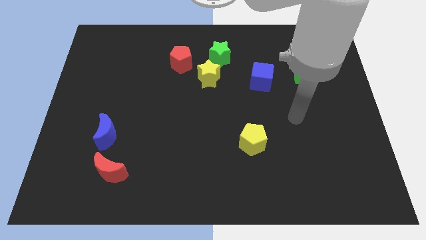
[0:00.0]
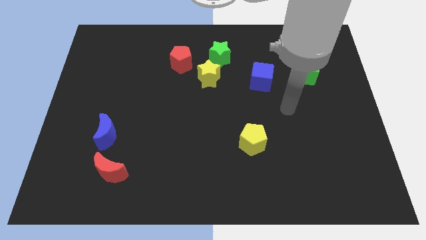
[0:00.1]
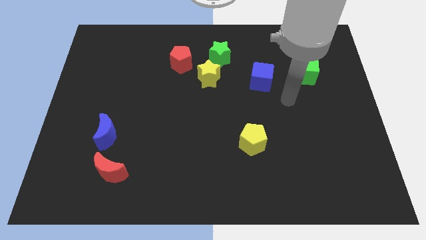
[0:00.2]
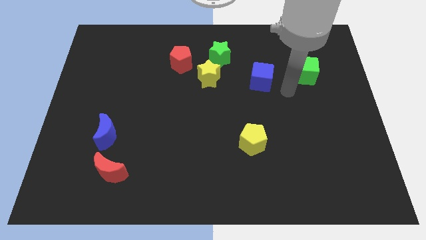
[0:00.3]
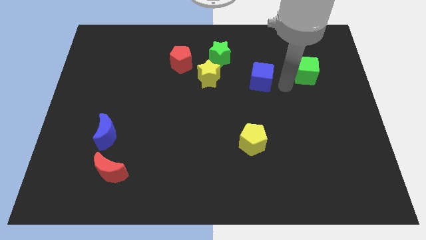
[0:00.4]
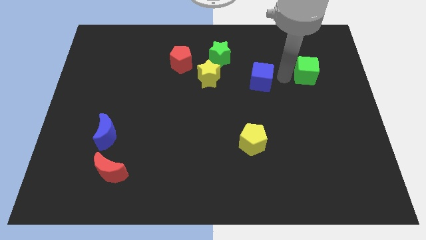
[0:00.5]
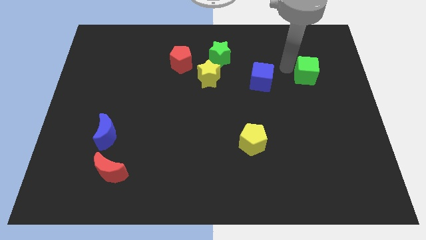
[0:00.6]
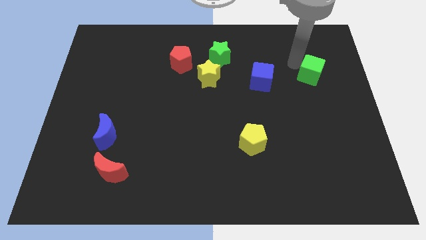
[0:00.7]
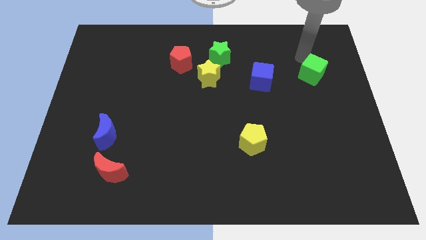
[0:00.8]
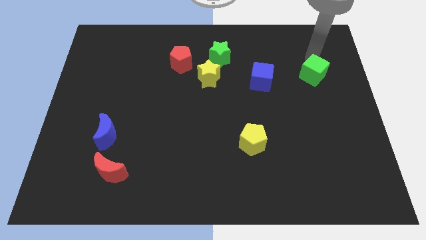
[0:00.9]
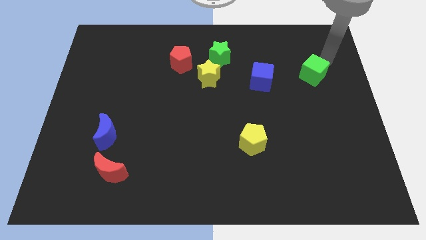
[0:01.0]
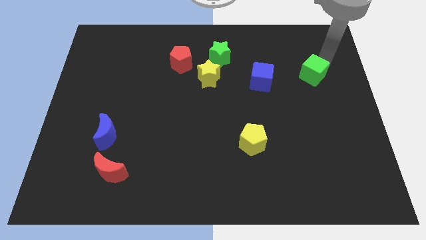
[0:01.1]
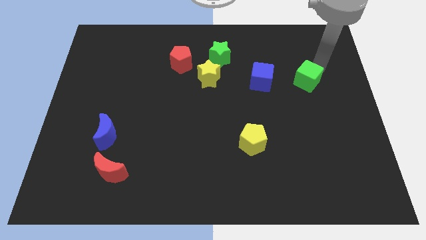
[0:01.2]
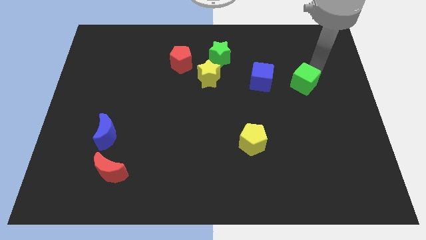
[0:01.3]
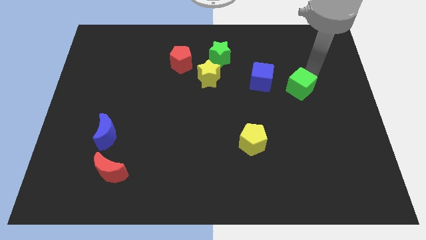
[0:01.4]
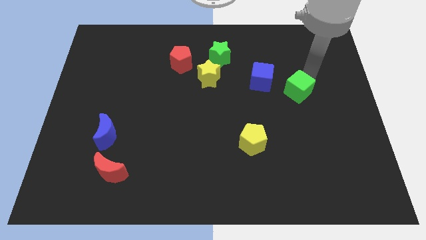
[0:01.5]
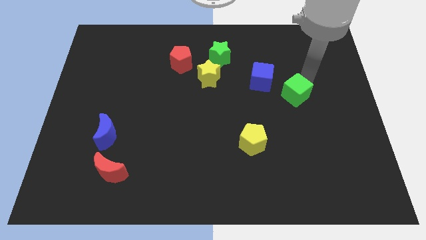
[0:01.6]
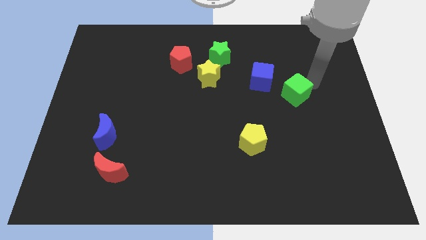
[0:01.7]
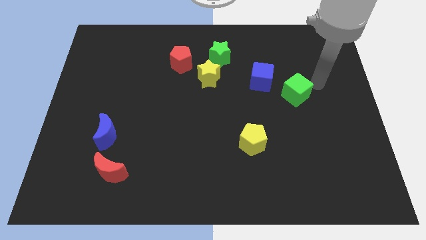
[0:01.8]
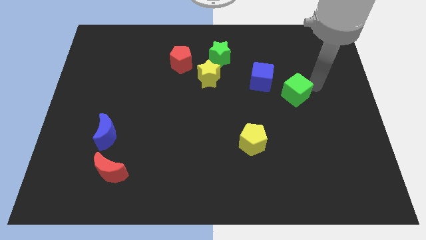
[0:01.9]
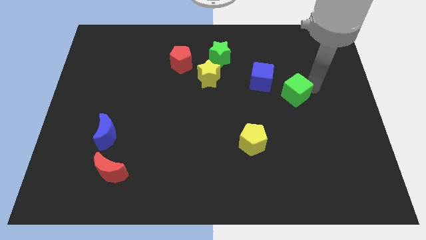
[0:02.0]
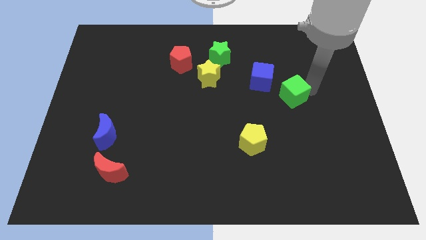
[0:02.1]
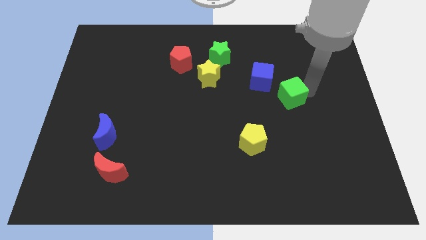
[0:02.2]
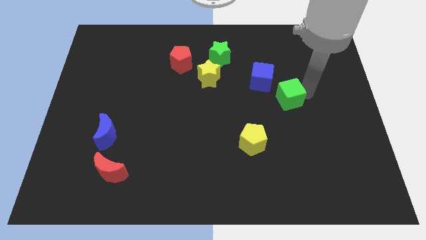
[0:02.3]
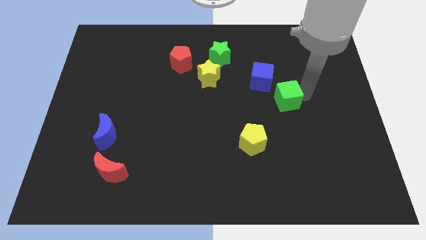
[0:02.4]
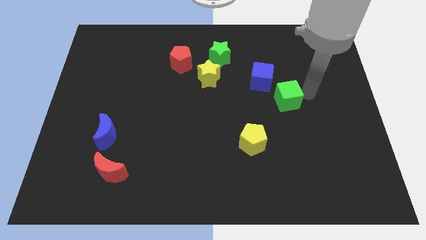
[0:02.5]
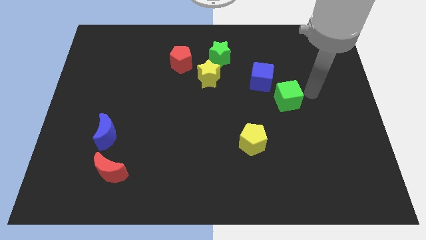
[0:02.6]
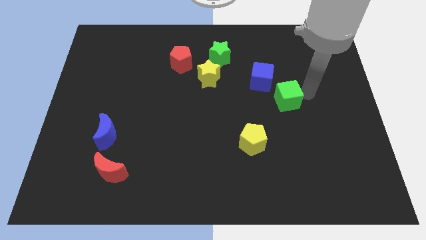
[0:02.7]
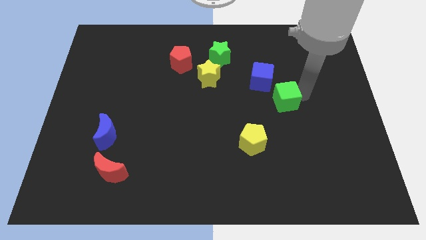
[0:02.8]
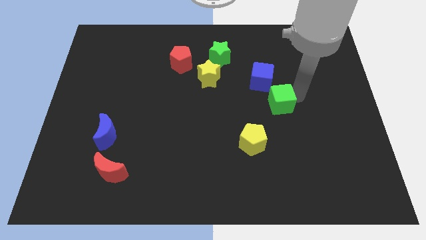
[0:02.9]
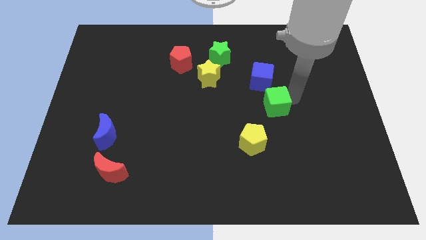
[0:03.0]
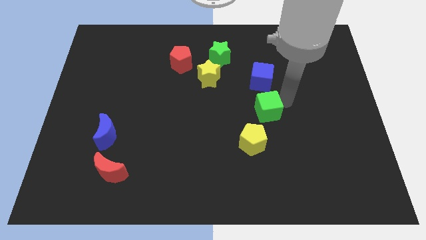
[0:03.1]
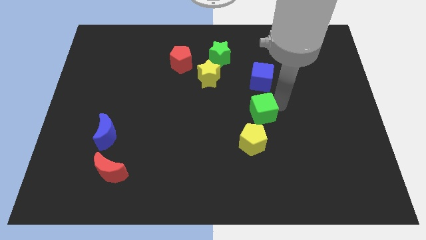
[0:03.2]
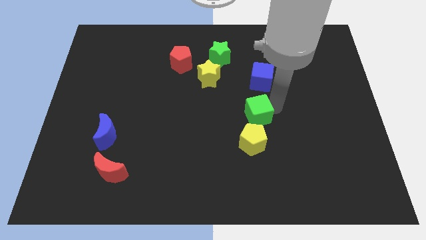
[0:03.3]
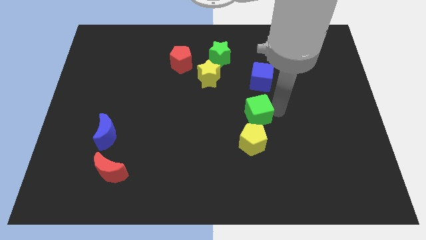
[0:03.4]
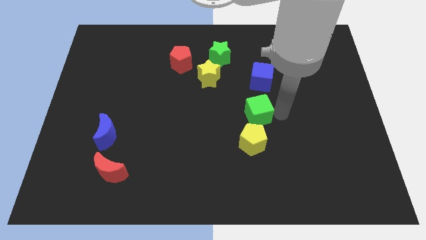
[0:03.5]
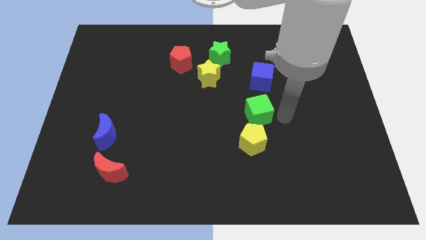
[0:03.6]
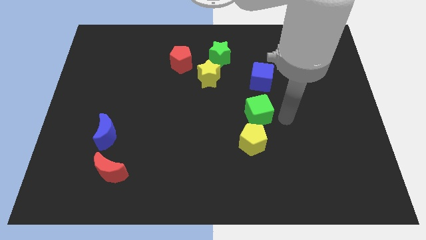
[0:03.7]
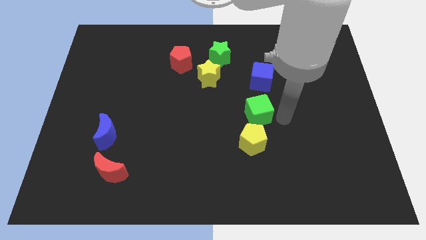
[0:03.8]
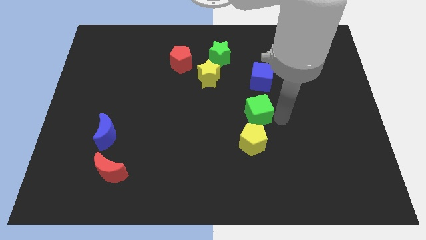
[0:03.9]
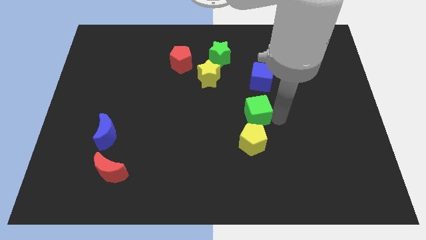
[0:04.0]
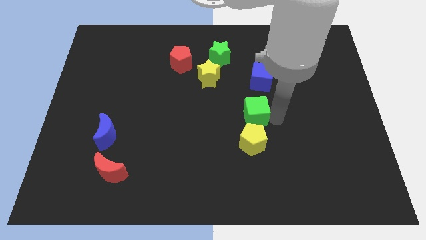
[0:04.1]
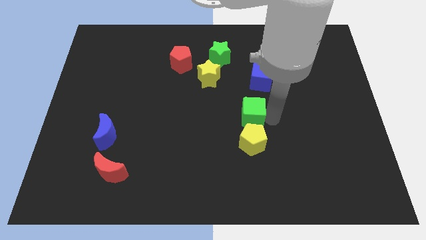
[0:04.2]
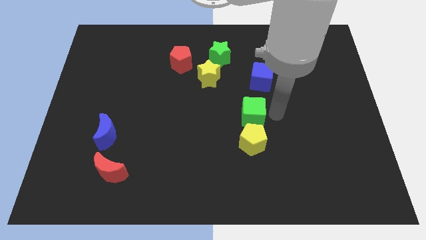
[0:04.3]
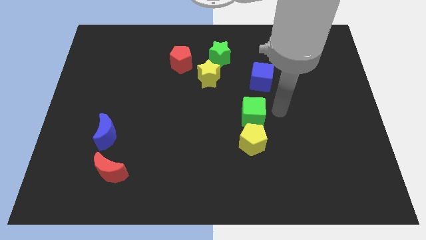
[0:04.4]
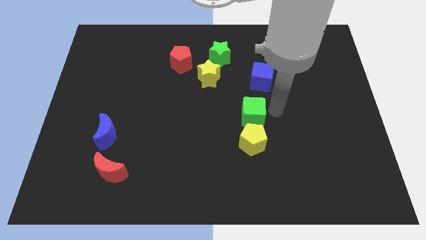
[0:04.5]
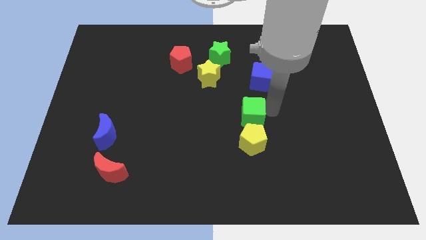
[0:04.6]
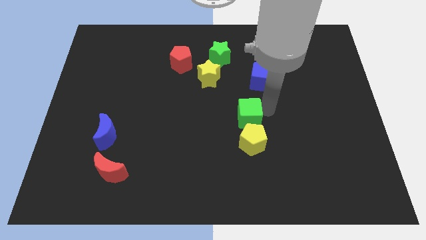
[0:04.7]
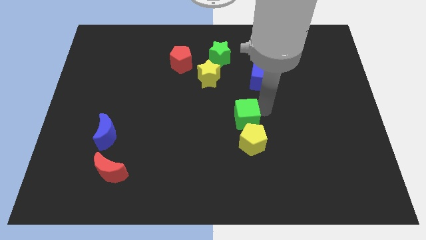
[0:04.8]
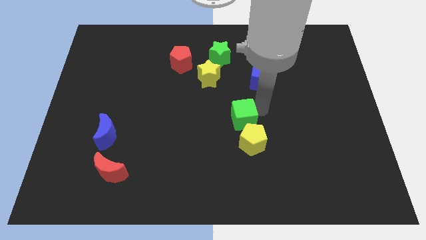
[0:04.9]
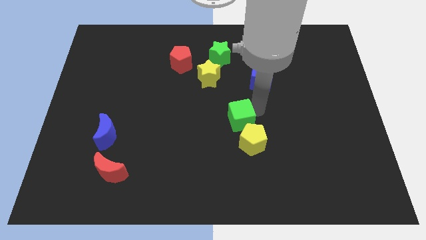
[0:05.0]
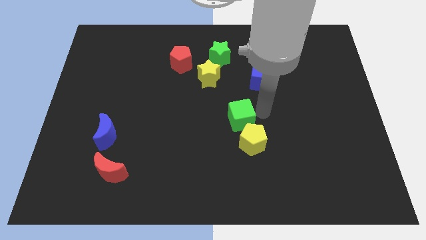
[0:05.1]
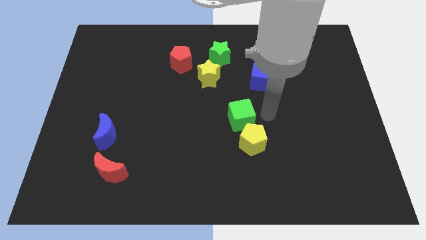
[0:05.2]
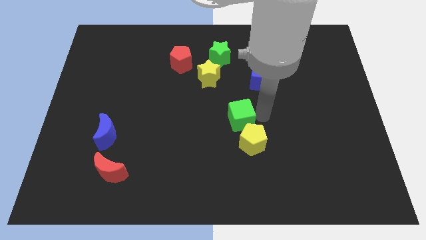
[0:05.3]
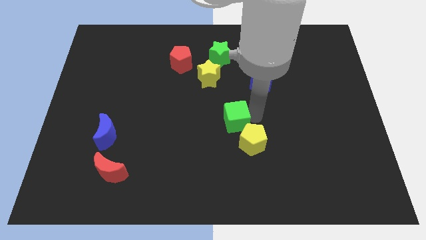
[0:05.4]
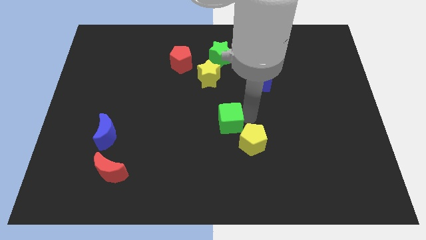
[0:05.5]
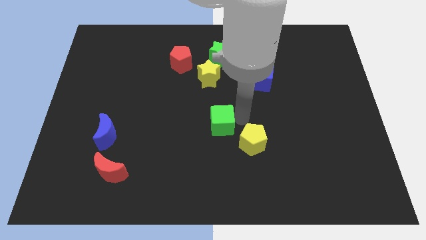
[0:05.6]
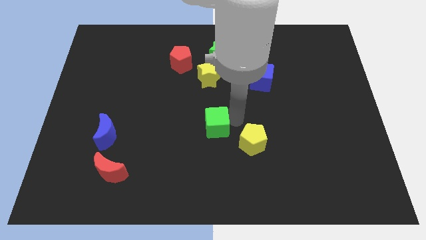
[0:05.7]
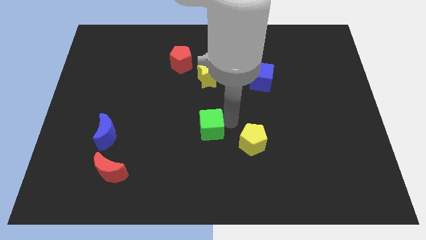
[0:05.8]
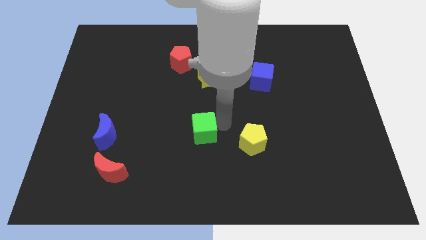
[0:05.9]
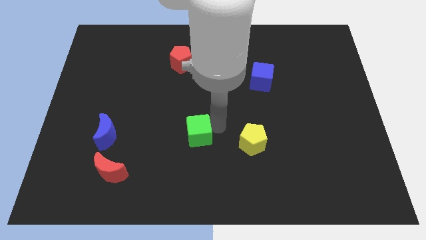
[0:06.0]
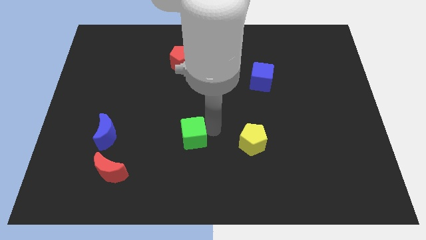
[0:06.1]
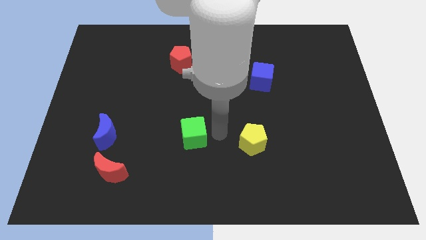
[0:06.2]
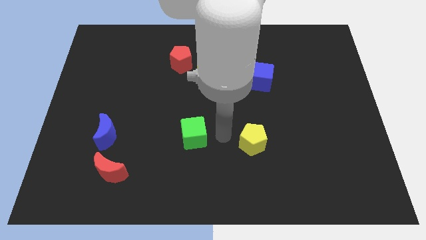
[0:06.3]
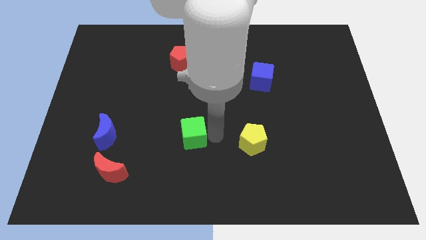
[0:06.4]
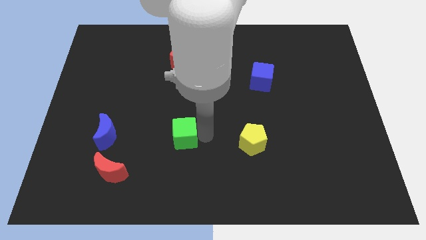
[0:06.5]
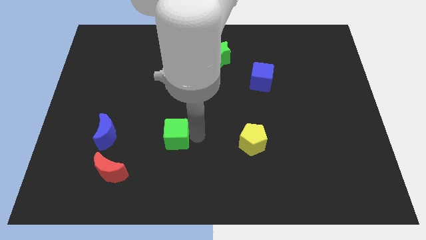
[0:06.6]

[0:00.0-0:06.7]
push the green cube just right of the blue moon

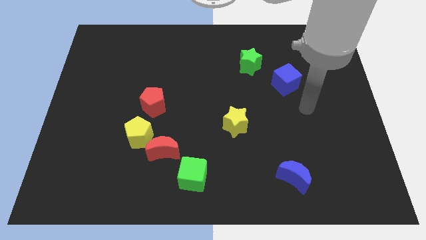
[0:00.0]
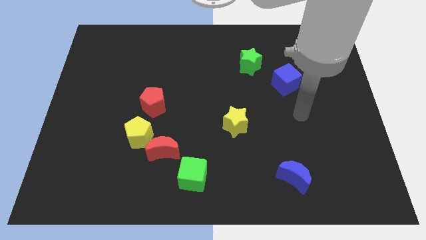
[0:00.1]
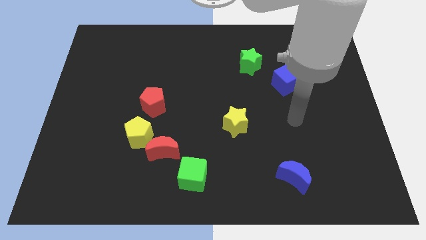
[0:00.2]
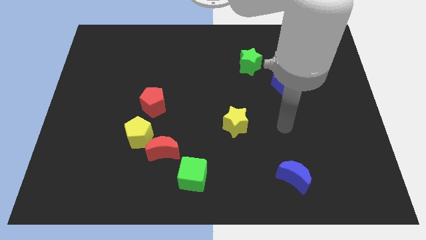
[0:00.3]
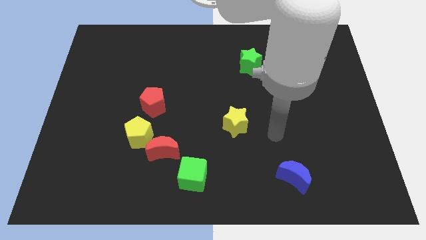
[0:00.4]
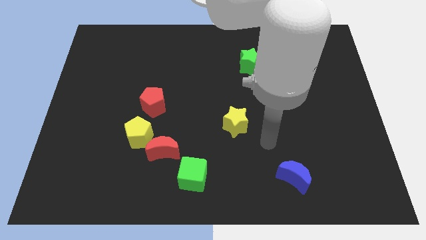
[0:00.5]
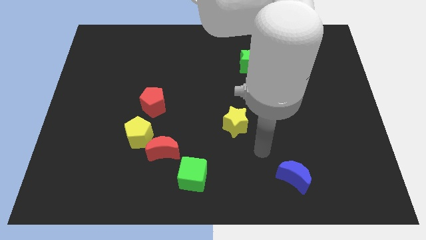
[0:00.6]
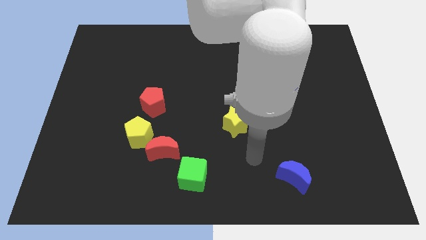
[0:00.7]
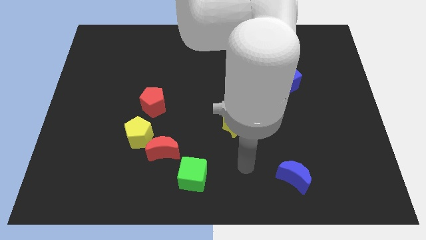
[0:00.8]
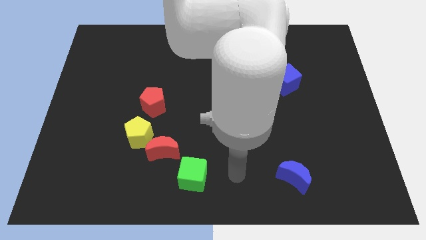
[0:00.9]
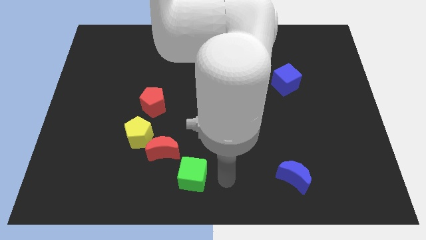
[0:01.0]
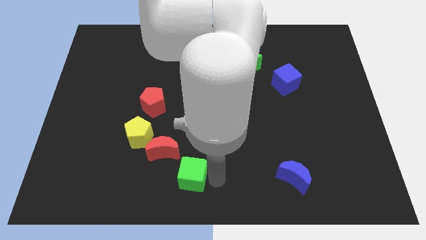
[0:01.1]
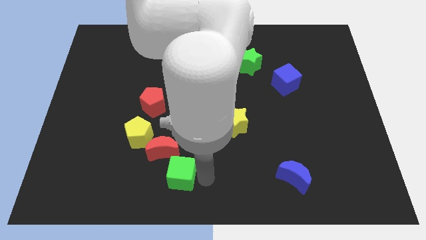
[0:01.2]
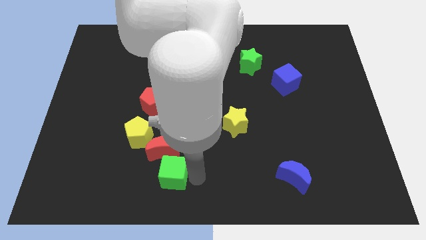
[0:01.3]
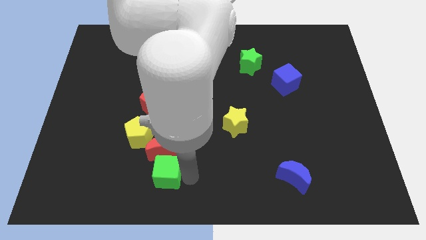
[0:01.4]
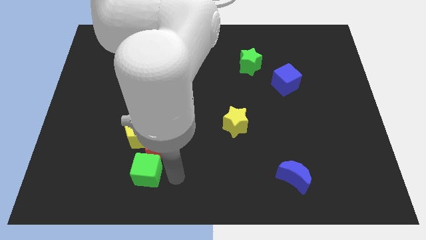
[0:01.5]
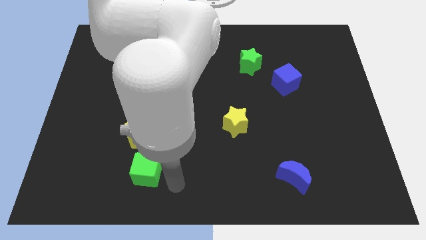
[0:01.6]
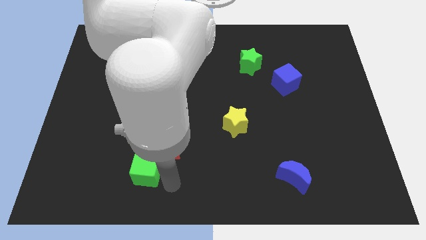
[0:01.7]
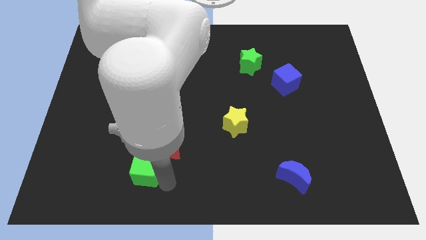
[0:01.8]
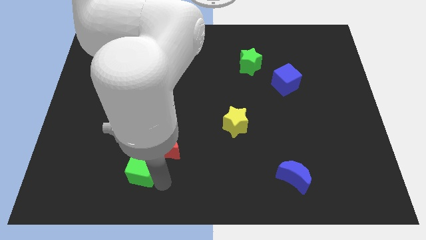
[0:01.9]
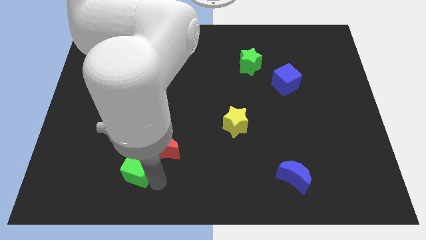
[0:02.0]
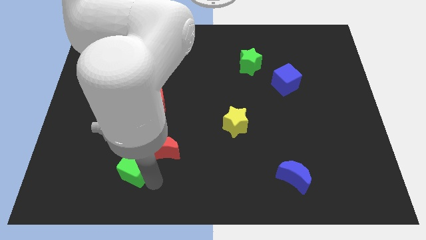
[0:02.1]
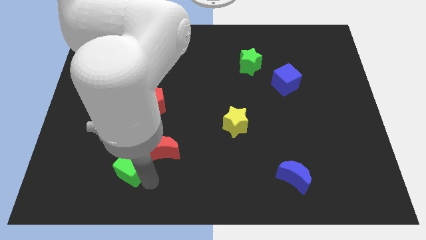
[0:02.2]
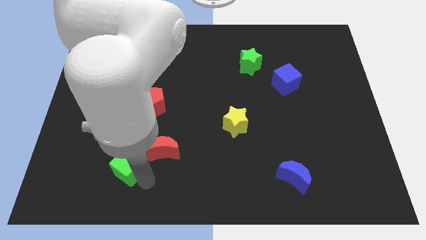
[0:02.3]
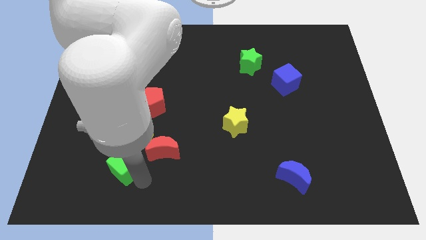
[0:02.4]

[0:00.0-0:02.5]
put the green cube diagonally down and to the left of the yellow pentagon
